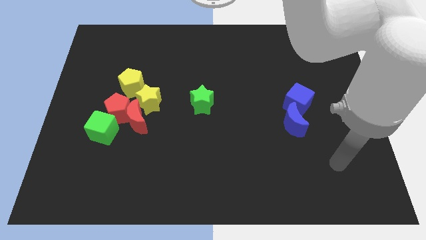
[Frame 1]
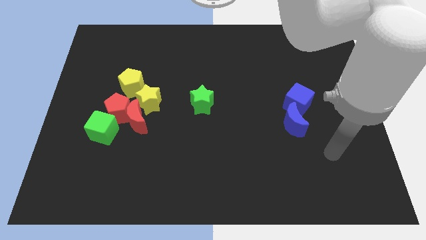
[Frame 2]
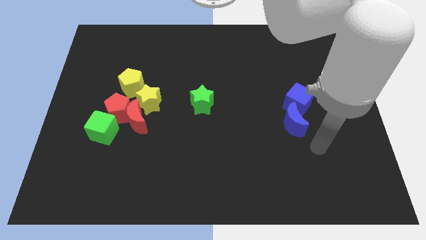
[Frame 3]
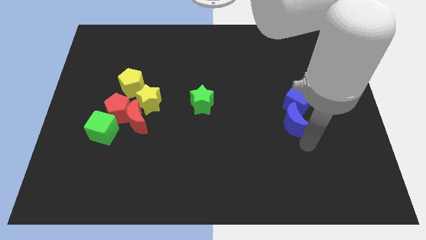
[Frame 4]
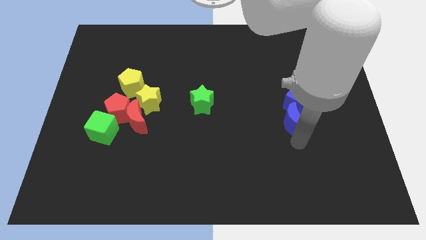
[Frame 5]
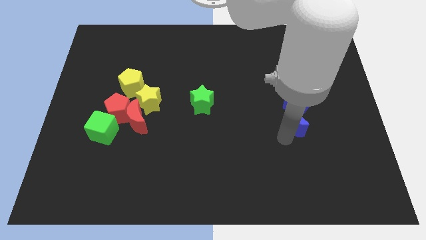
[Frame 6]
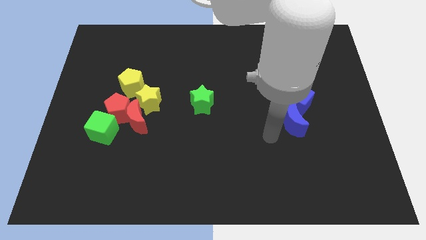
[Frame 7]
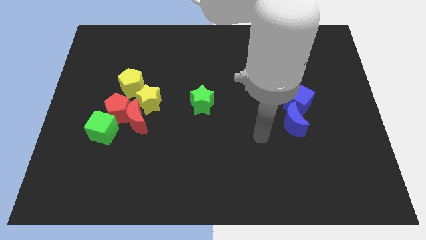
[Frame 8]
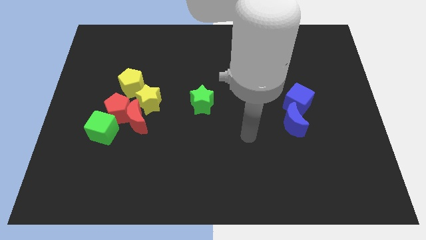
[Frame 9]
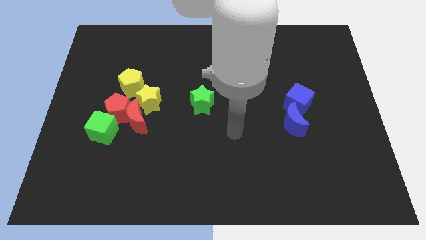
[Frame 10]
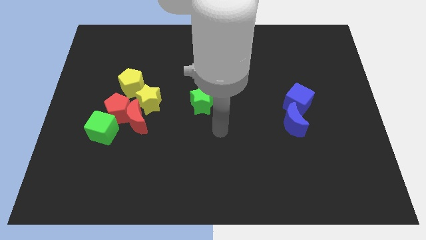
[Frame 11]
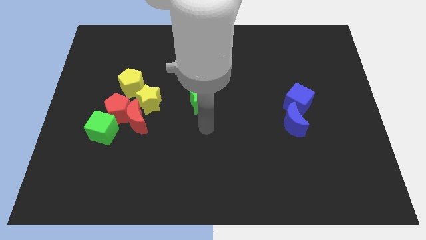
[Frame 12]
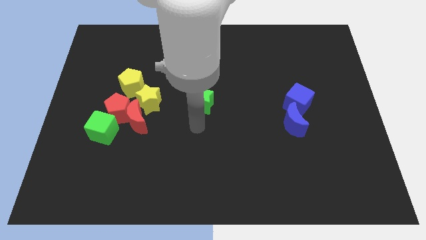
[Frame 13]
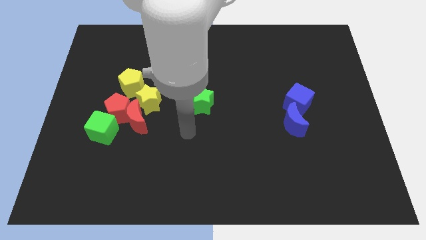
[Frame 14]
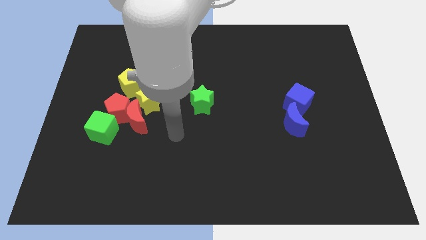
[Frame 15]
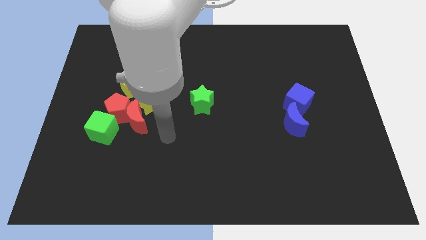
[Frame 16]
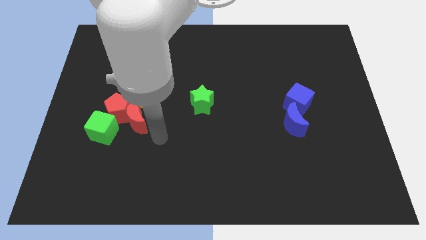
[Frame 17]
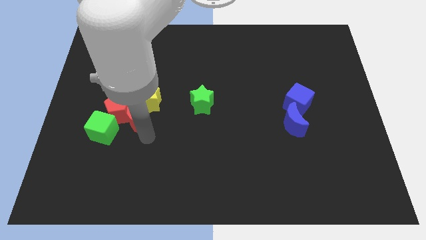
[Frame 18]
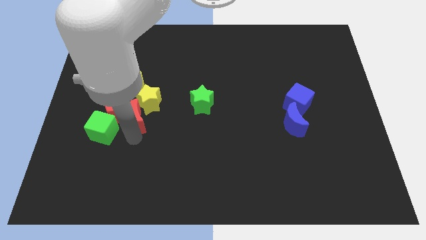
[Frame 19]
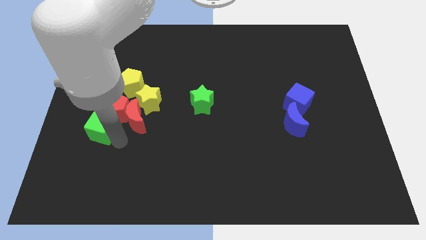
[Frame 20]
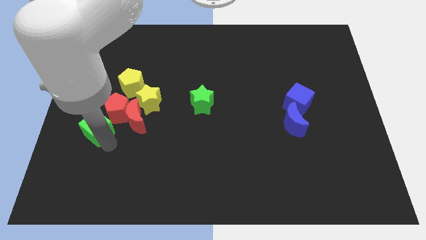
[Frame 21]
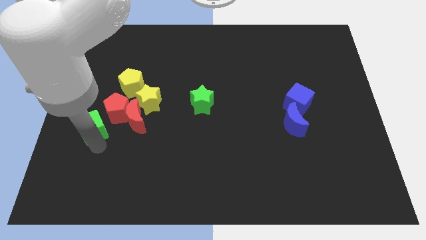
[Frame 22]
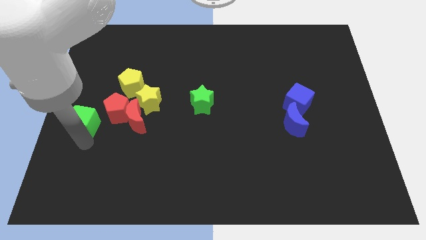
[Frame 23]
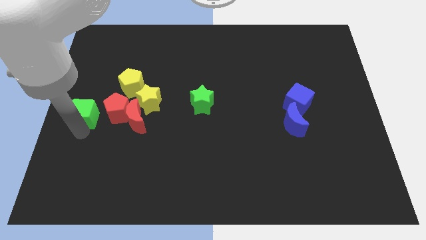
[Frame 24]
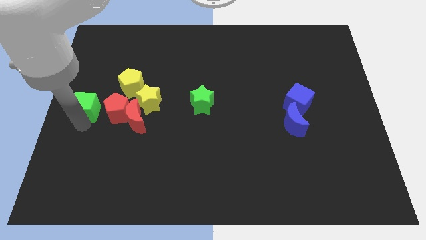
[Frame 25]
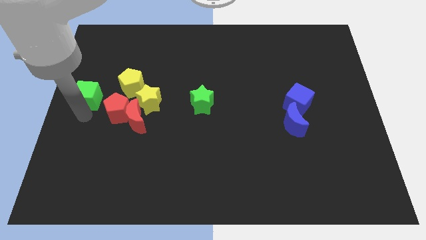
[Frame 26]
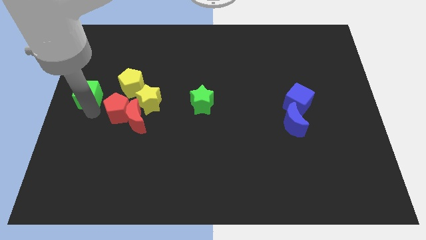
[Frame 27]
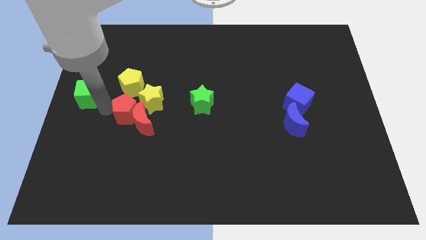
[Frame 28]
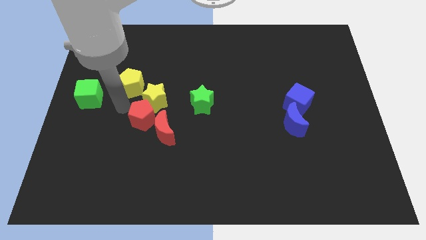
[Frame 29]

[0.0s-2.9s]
pull the red moon apart from the clump

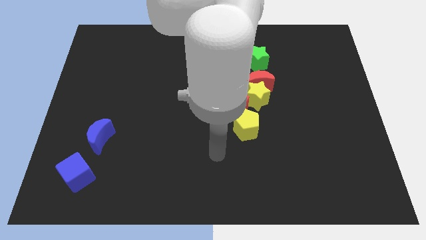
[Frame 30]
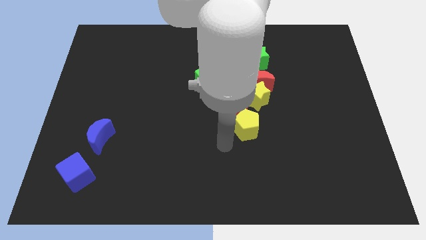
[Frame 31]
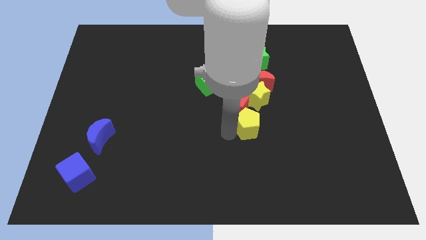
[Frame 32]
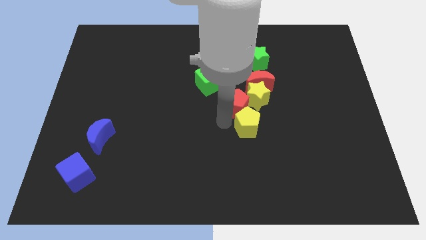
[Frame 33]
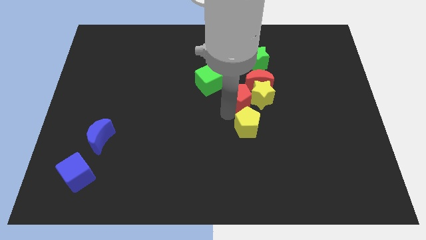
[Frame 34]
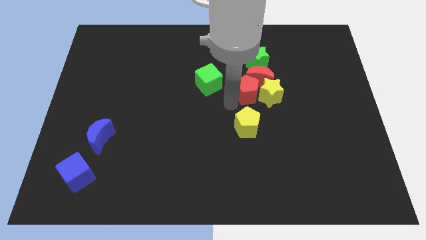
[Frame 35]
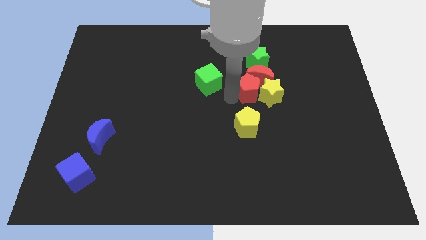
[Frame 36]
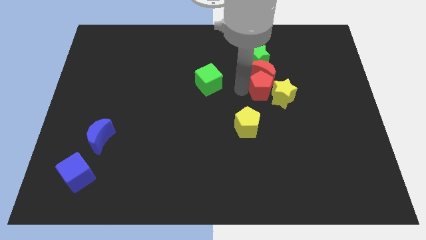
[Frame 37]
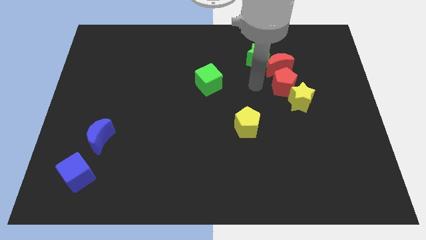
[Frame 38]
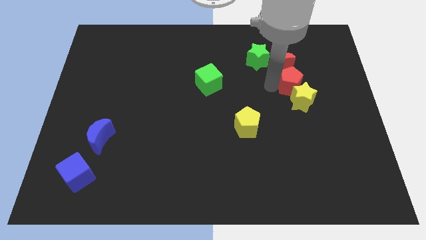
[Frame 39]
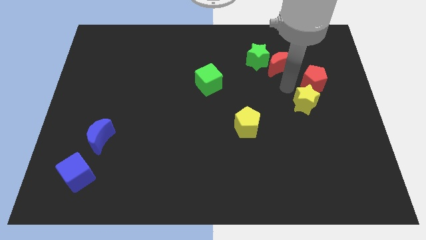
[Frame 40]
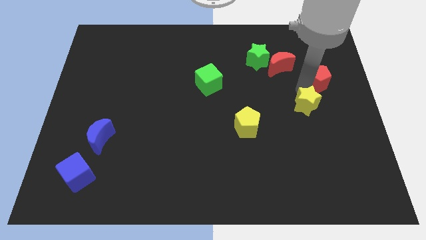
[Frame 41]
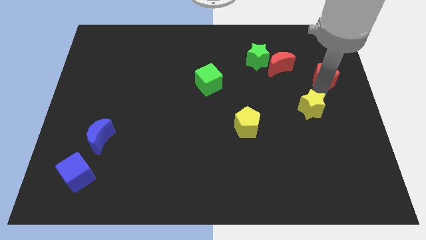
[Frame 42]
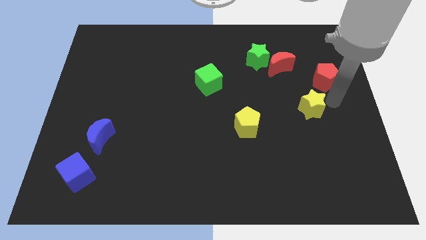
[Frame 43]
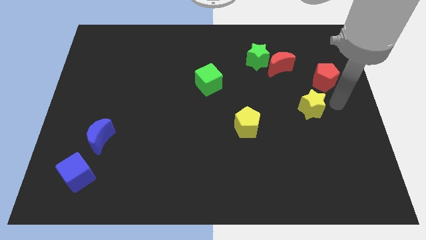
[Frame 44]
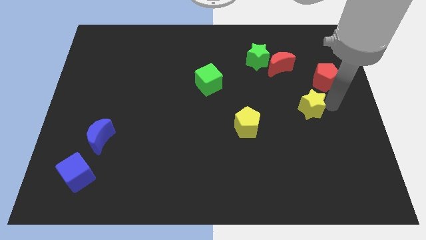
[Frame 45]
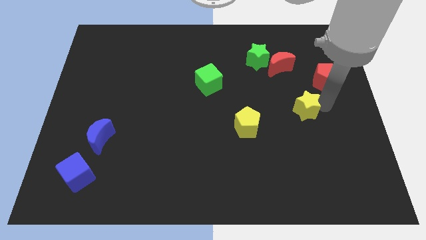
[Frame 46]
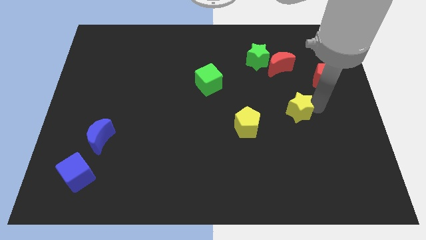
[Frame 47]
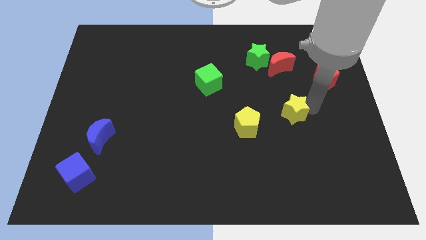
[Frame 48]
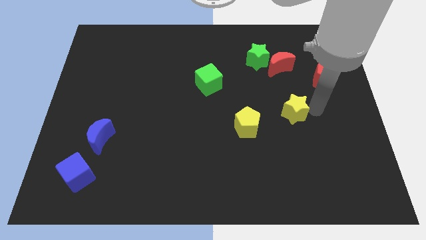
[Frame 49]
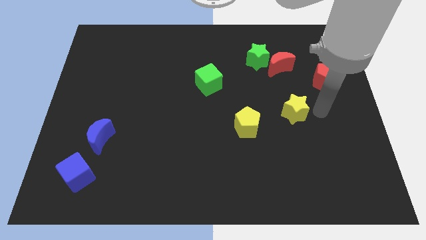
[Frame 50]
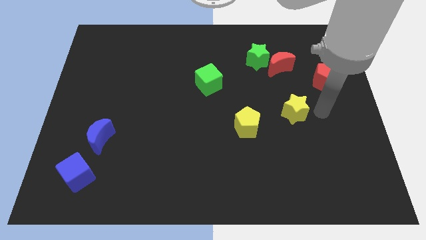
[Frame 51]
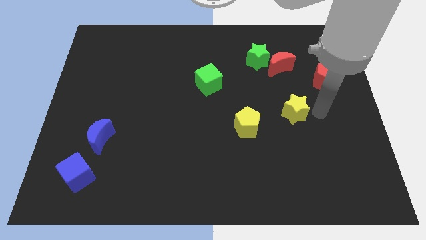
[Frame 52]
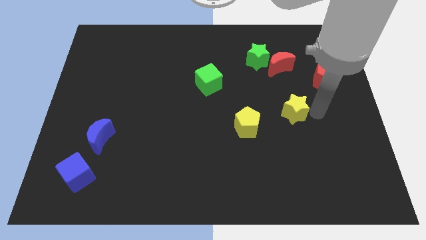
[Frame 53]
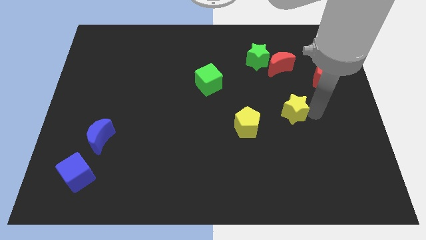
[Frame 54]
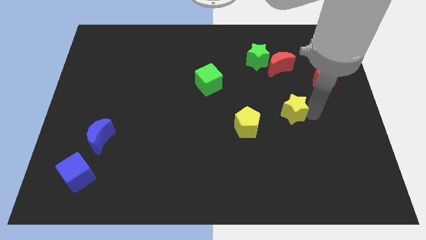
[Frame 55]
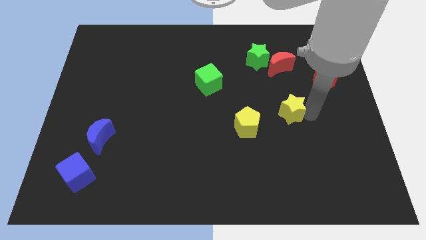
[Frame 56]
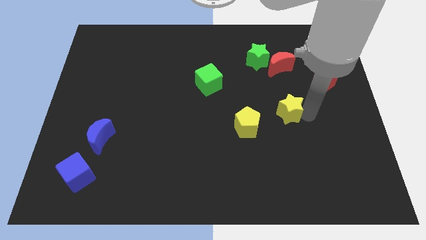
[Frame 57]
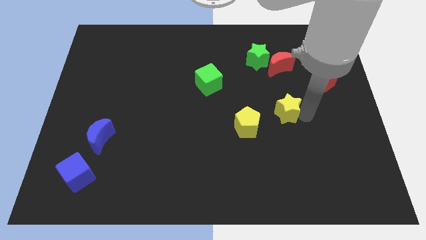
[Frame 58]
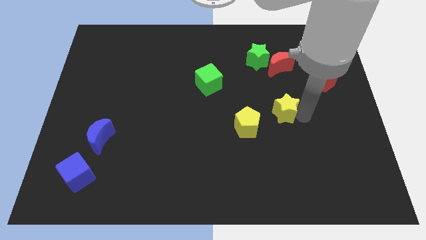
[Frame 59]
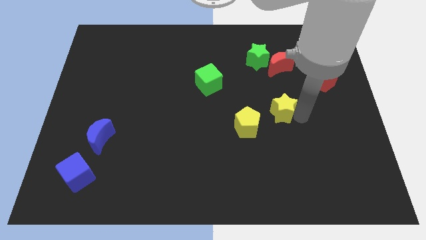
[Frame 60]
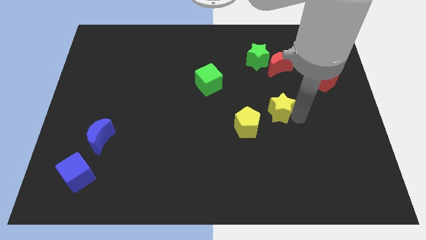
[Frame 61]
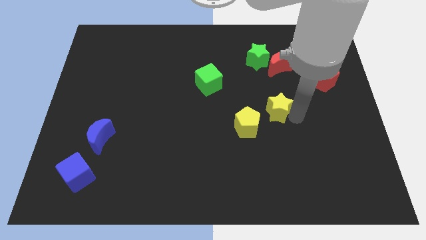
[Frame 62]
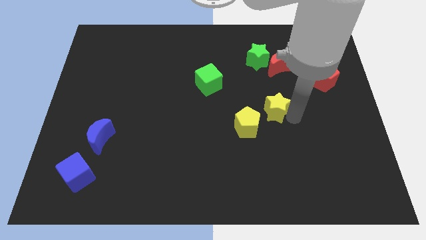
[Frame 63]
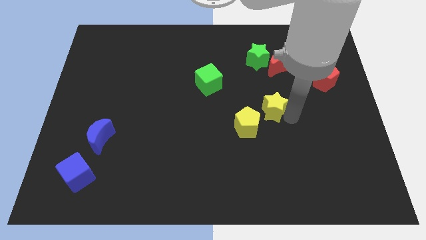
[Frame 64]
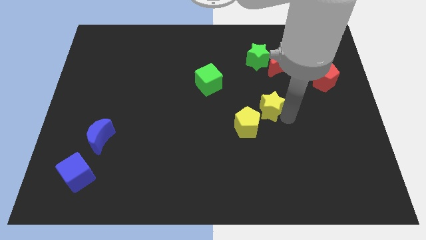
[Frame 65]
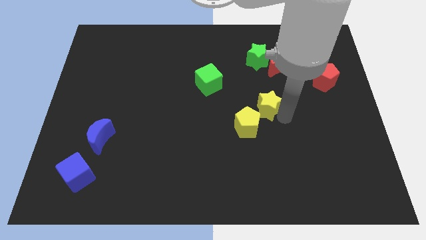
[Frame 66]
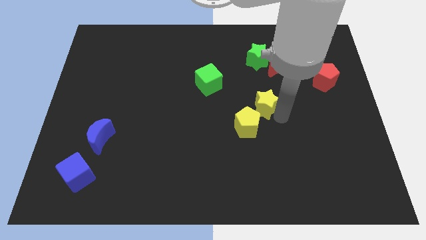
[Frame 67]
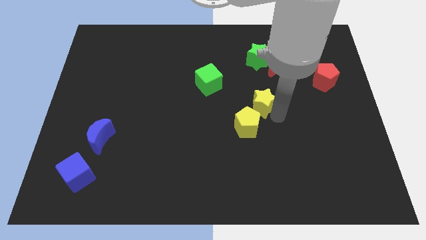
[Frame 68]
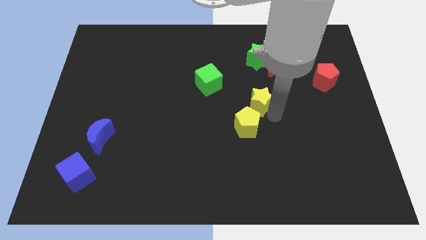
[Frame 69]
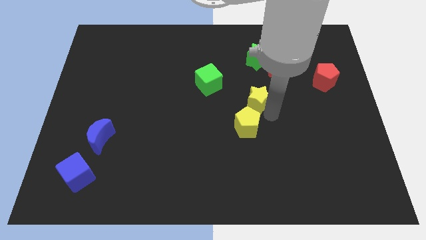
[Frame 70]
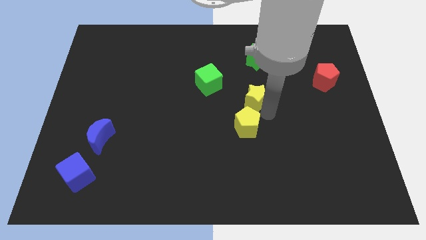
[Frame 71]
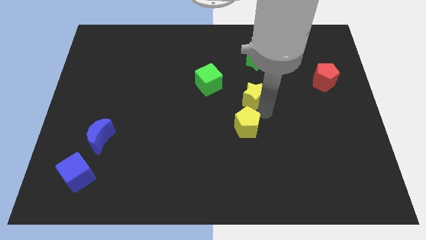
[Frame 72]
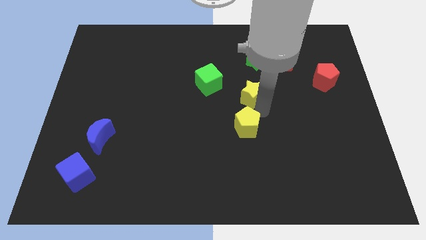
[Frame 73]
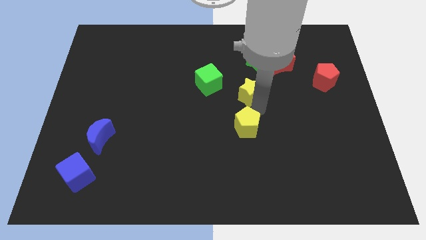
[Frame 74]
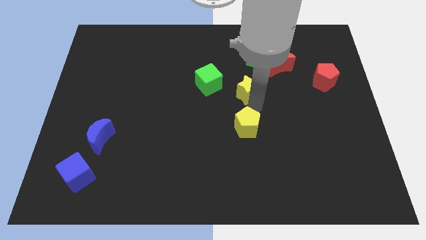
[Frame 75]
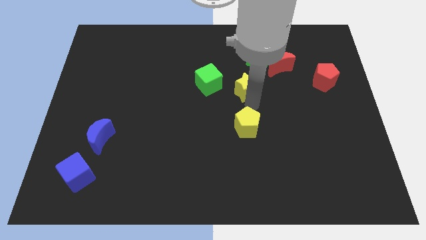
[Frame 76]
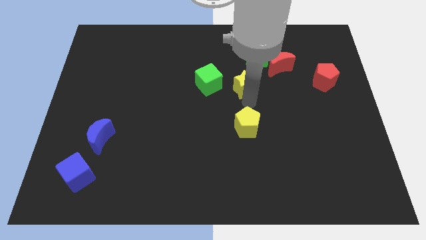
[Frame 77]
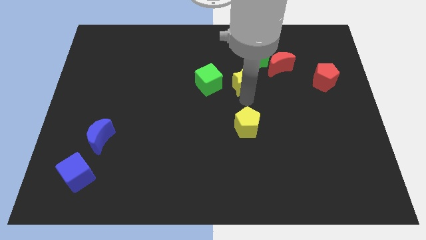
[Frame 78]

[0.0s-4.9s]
move the yellow star away from the red moon, red pentagon, and yellow pentagon

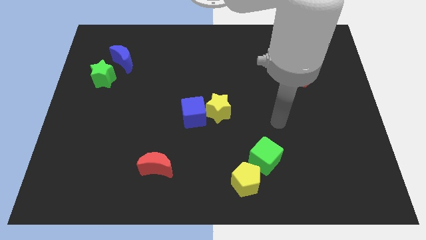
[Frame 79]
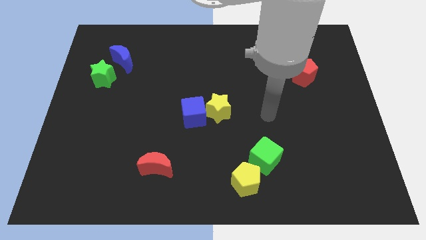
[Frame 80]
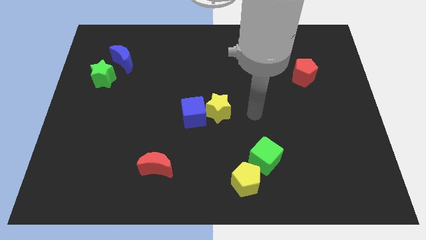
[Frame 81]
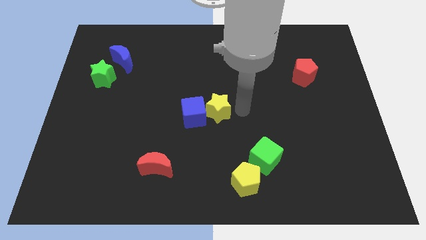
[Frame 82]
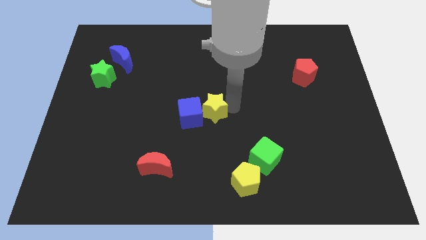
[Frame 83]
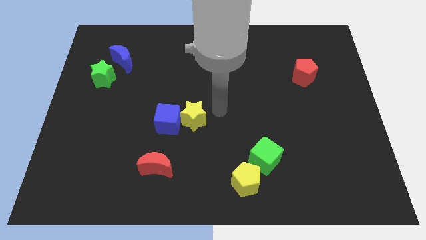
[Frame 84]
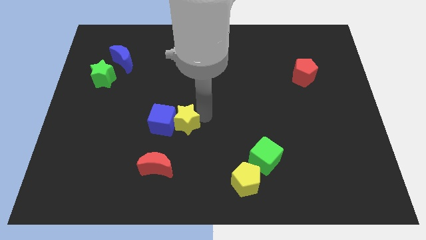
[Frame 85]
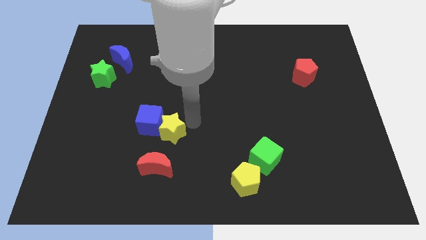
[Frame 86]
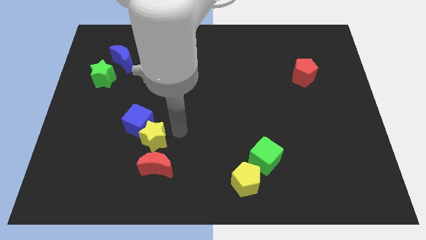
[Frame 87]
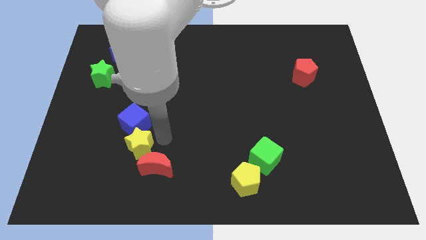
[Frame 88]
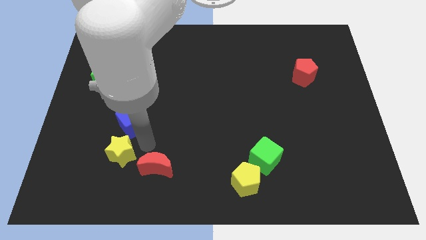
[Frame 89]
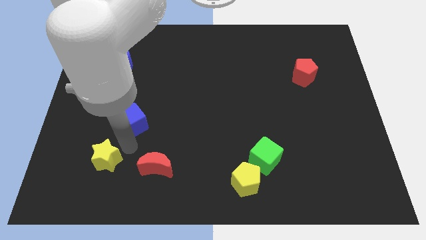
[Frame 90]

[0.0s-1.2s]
move the blue cube away from the yellow star

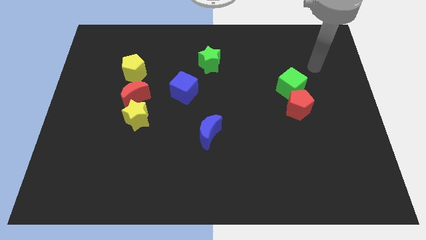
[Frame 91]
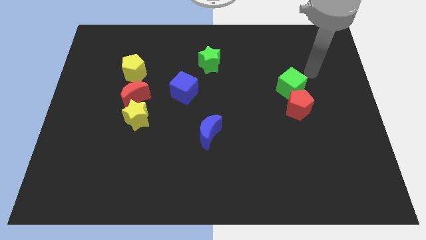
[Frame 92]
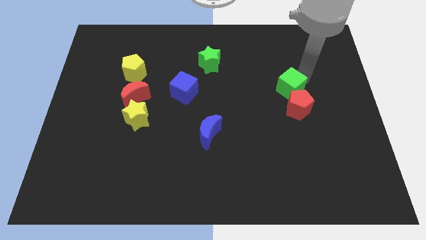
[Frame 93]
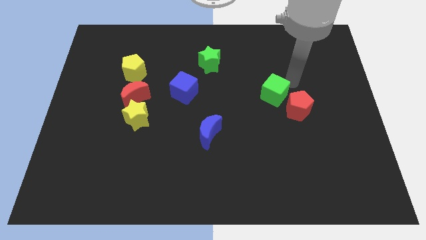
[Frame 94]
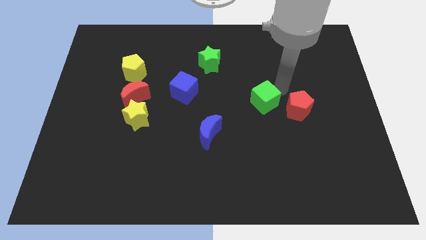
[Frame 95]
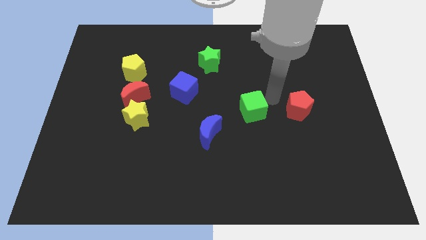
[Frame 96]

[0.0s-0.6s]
pull the red pentagon apart from the green cube
